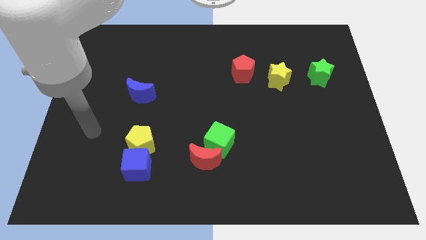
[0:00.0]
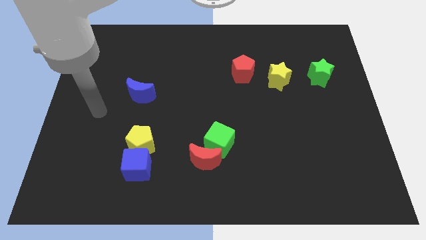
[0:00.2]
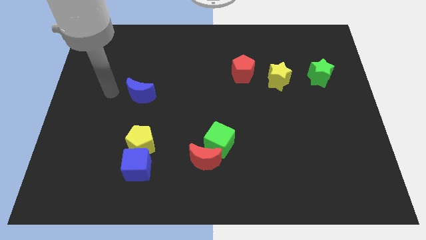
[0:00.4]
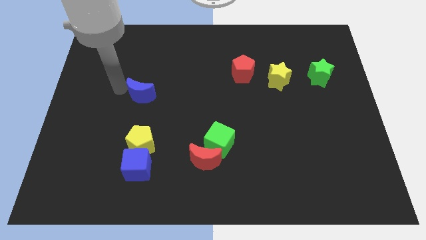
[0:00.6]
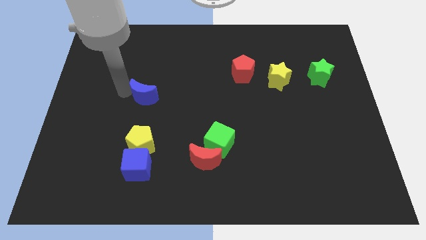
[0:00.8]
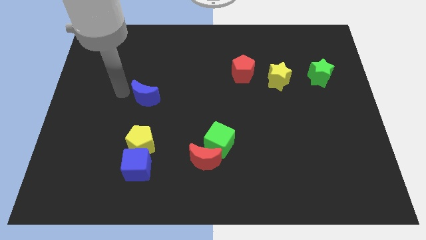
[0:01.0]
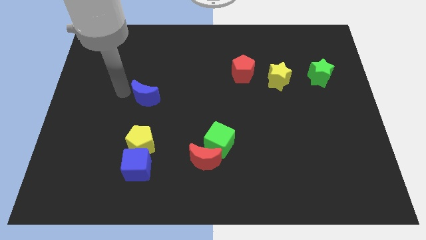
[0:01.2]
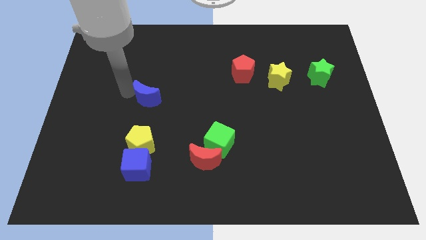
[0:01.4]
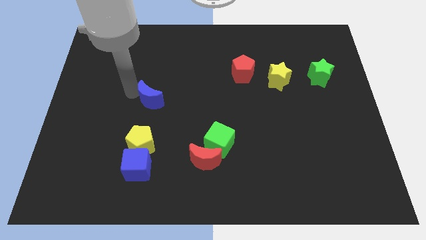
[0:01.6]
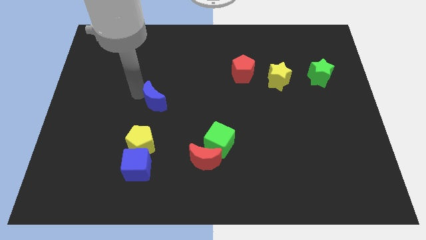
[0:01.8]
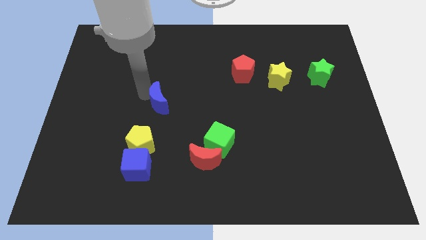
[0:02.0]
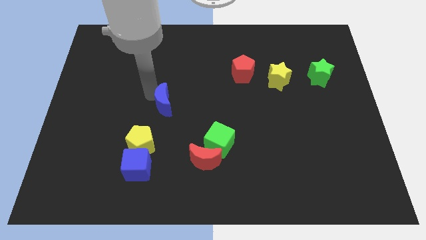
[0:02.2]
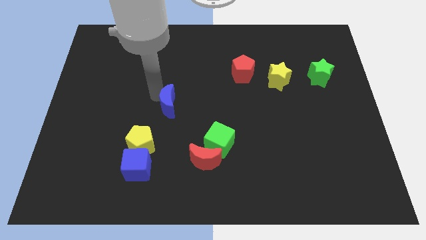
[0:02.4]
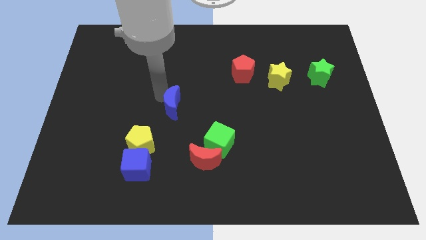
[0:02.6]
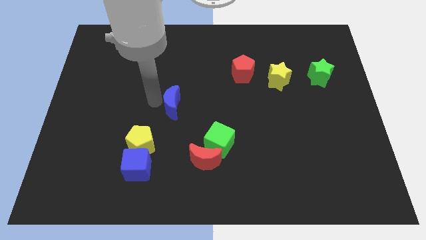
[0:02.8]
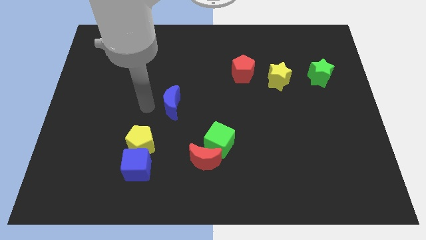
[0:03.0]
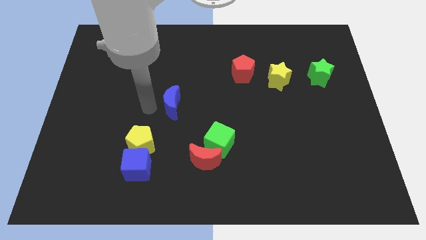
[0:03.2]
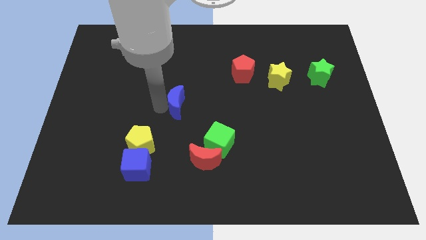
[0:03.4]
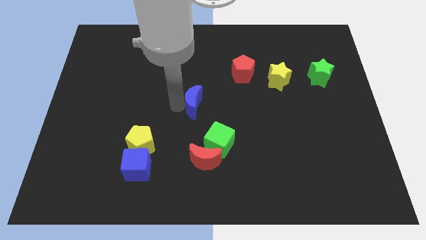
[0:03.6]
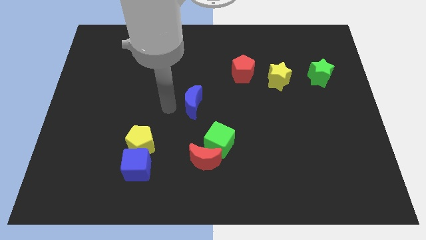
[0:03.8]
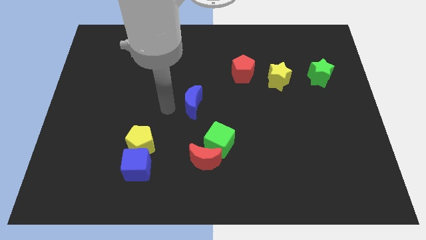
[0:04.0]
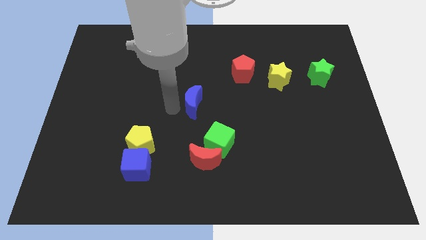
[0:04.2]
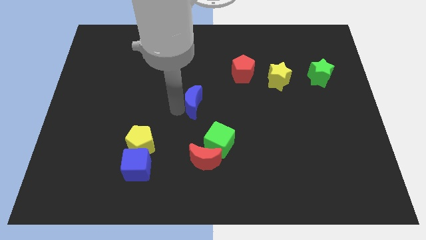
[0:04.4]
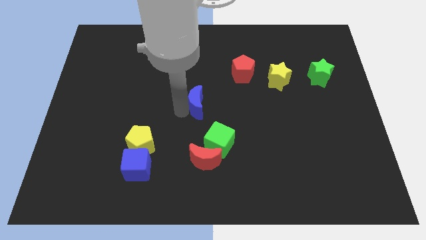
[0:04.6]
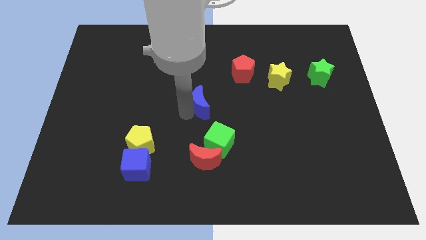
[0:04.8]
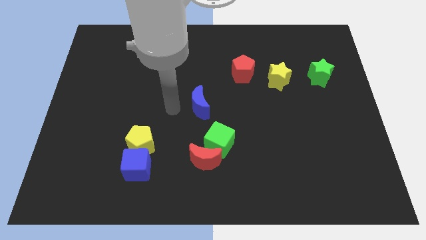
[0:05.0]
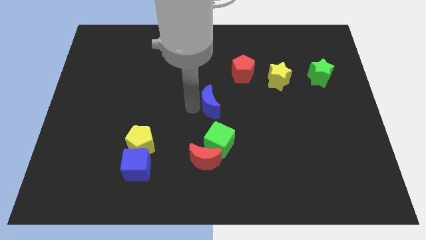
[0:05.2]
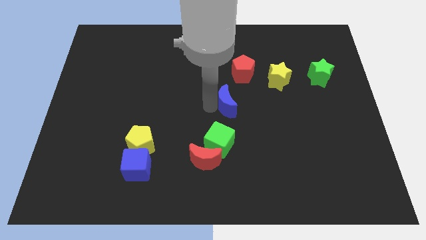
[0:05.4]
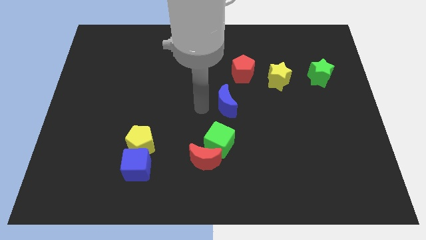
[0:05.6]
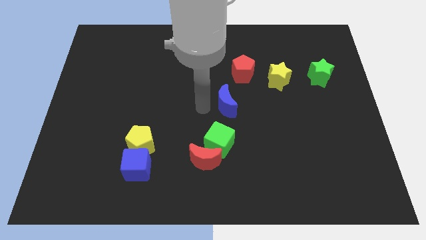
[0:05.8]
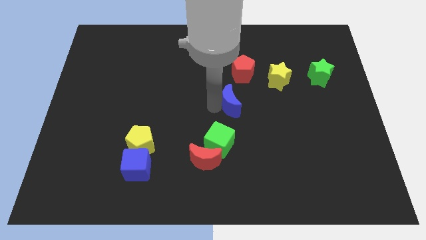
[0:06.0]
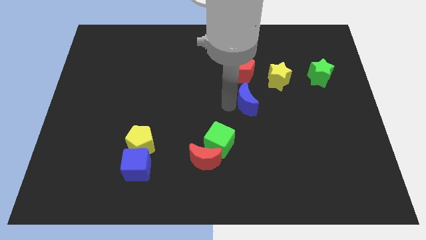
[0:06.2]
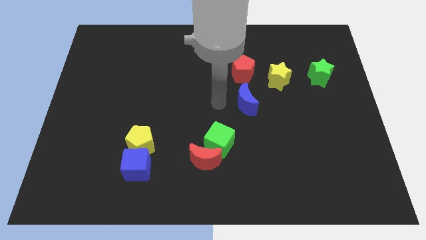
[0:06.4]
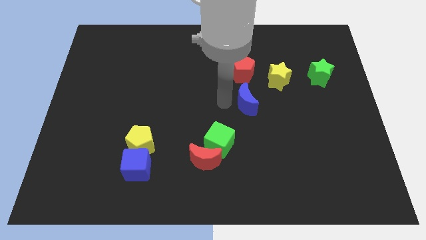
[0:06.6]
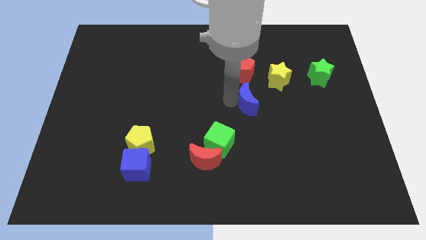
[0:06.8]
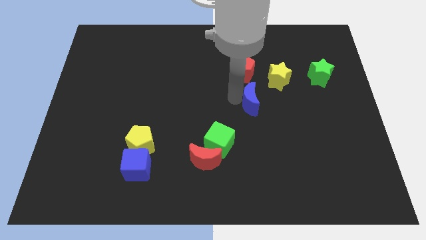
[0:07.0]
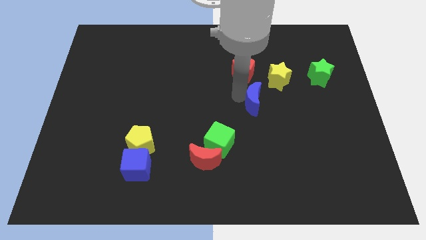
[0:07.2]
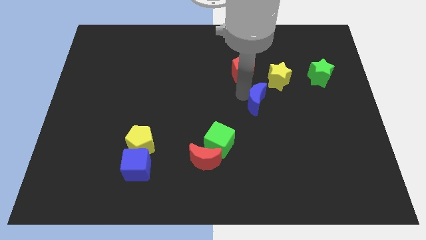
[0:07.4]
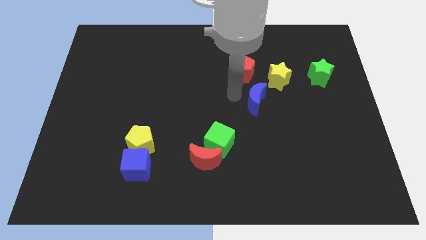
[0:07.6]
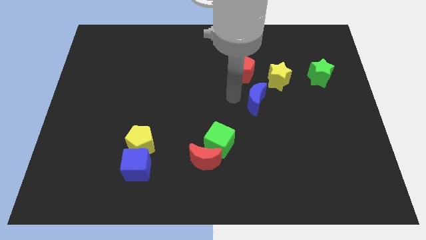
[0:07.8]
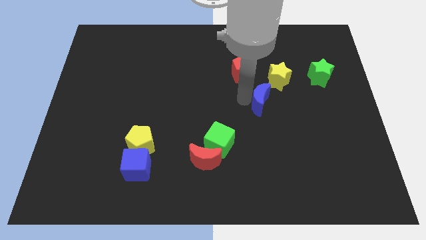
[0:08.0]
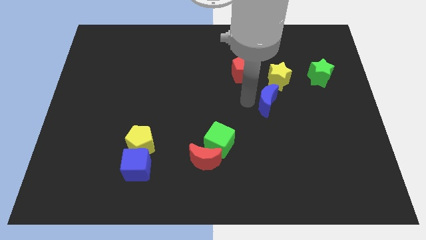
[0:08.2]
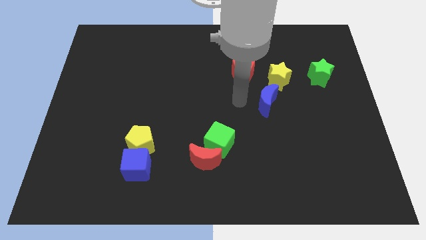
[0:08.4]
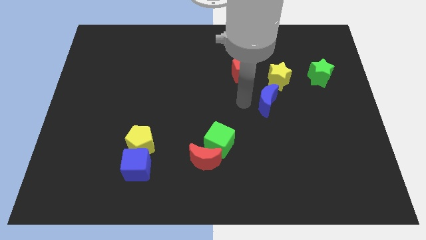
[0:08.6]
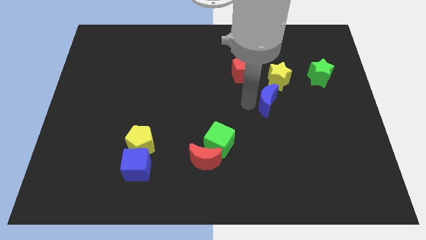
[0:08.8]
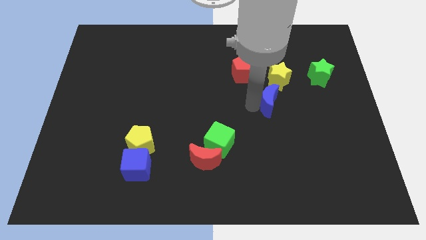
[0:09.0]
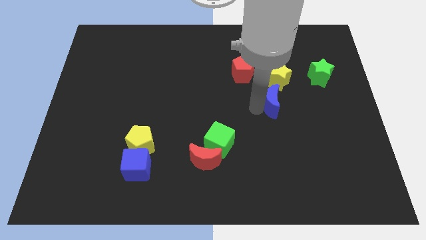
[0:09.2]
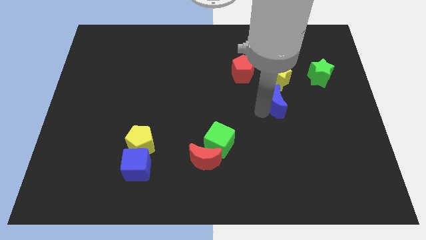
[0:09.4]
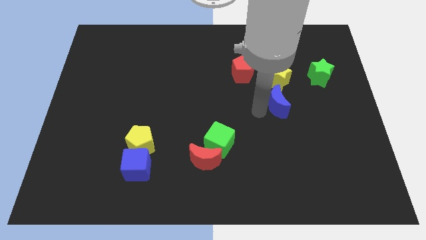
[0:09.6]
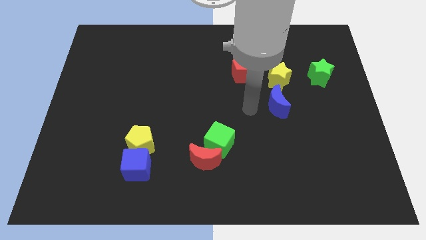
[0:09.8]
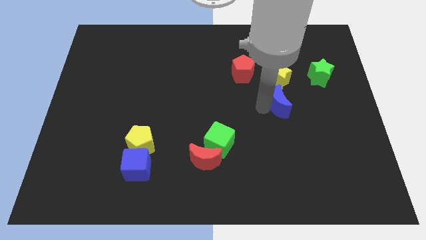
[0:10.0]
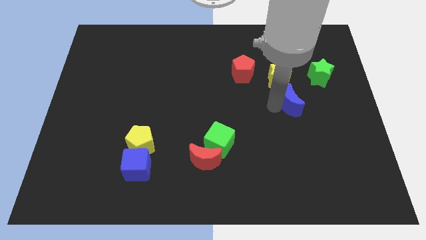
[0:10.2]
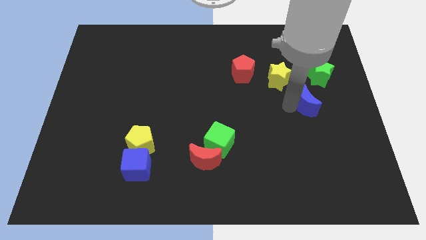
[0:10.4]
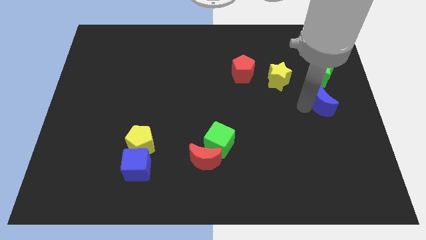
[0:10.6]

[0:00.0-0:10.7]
move the blue moon to the center right

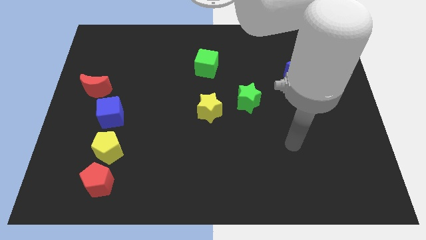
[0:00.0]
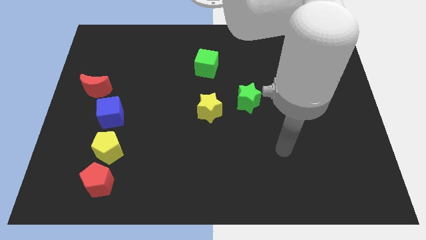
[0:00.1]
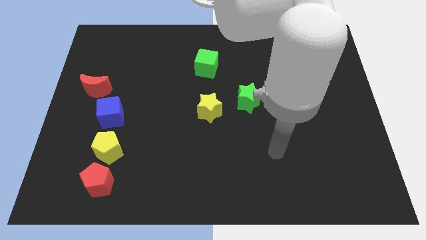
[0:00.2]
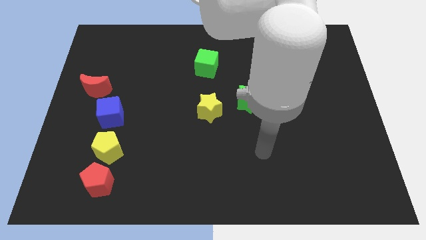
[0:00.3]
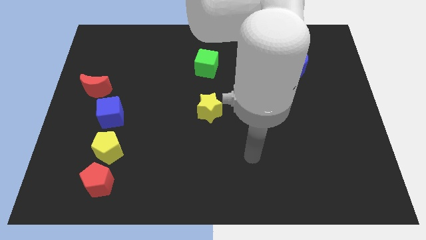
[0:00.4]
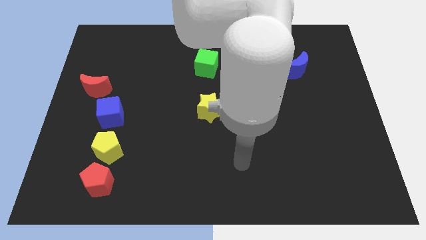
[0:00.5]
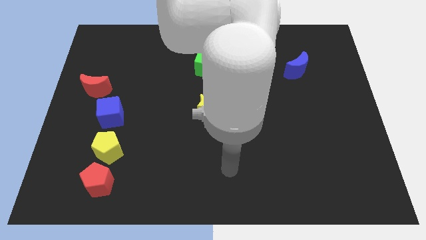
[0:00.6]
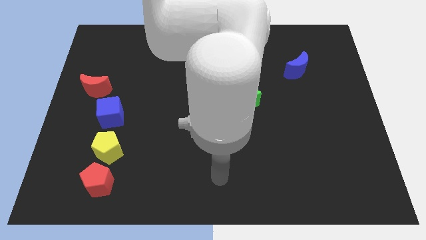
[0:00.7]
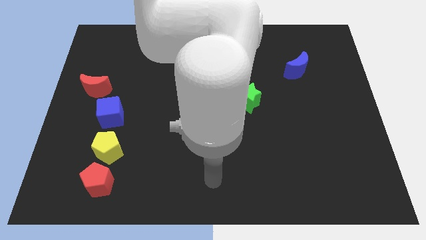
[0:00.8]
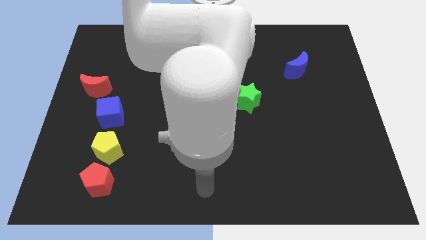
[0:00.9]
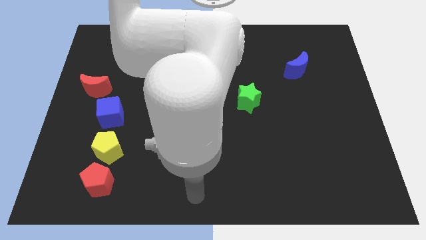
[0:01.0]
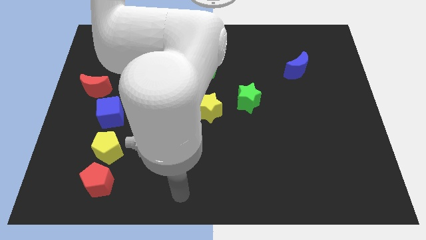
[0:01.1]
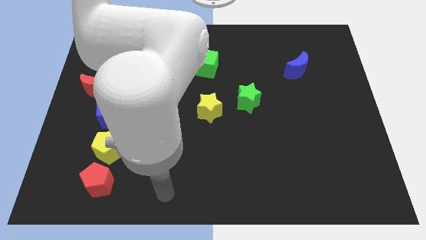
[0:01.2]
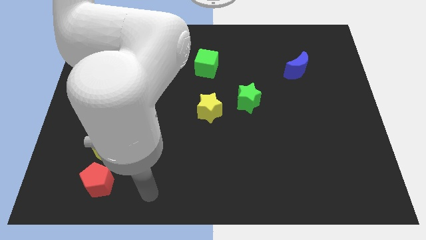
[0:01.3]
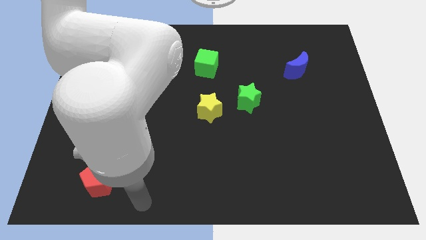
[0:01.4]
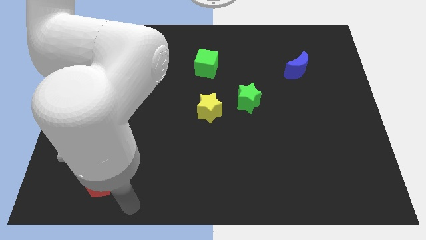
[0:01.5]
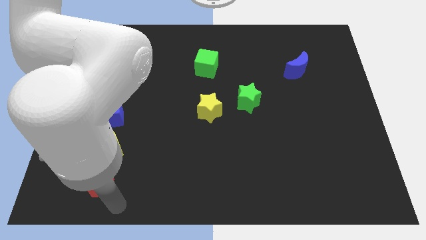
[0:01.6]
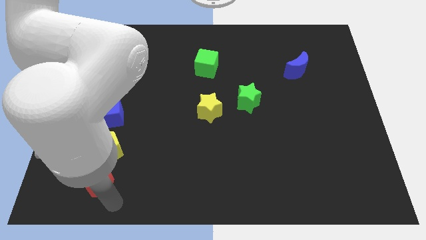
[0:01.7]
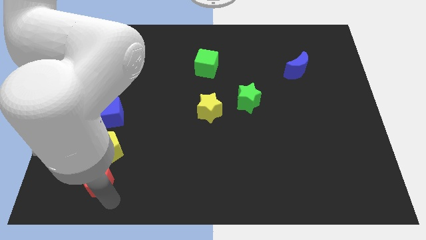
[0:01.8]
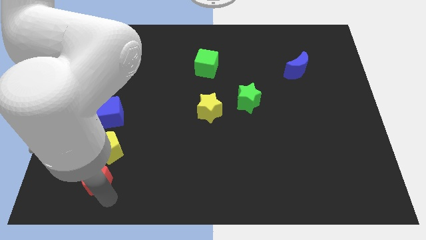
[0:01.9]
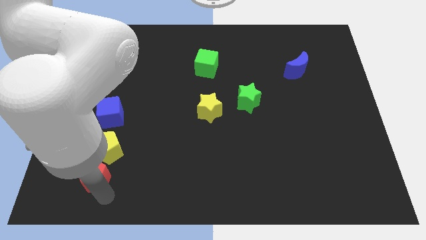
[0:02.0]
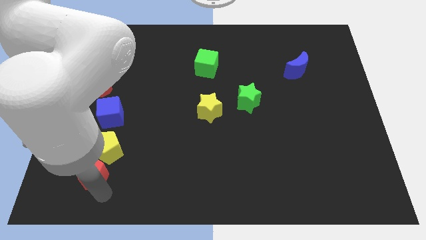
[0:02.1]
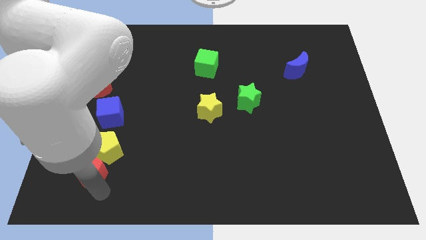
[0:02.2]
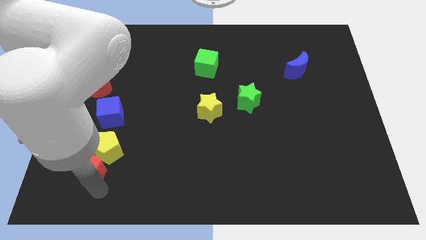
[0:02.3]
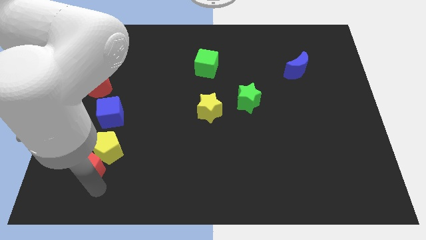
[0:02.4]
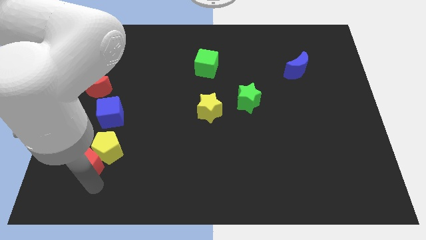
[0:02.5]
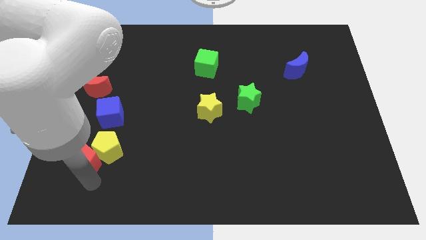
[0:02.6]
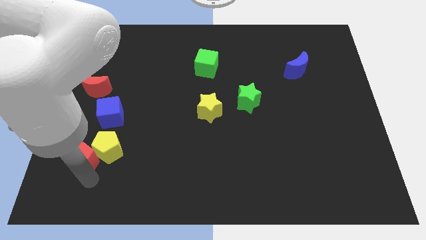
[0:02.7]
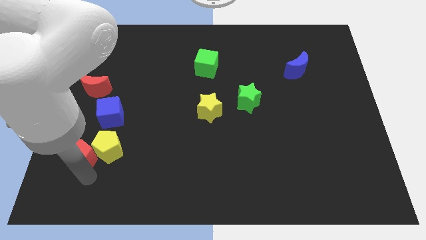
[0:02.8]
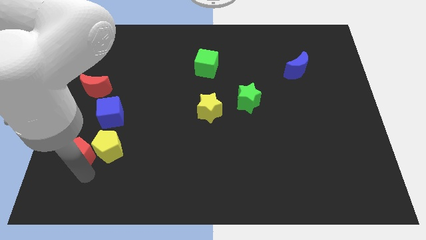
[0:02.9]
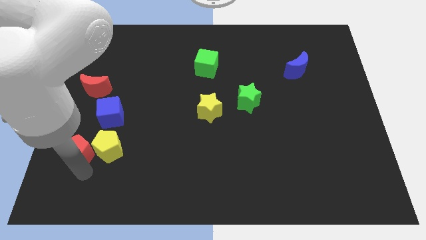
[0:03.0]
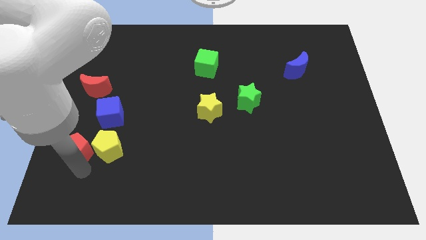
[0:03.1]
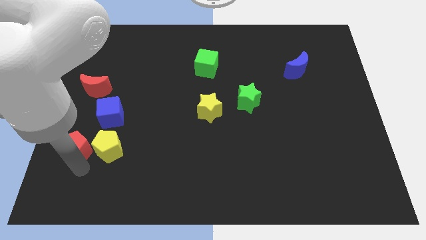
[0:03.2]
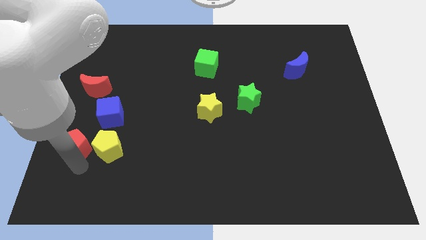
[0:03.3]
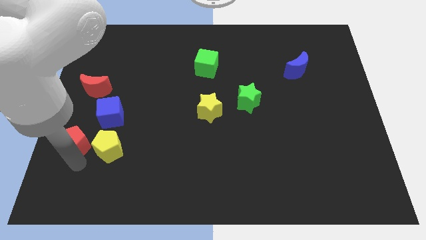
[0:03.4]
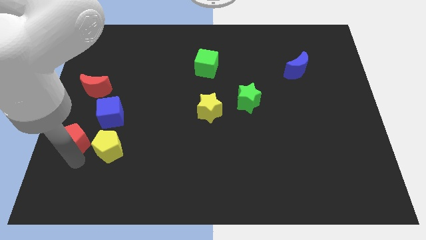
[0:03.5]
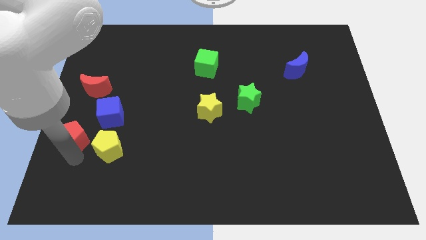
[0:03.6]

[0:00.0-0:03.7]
move the red pentagon to the left side
